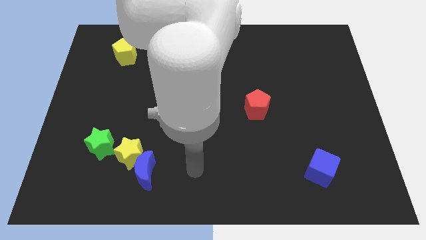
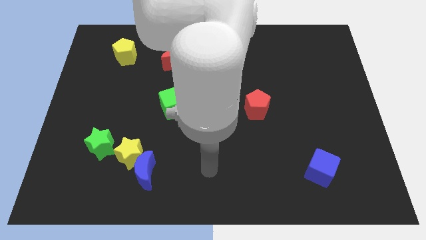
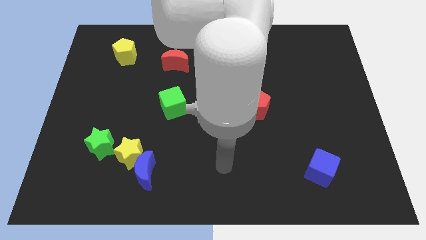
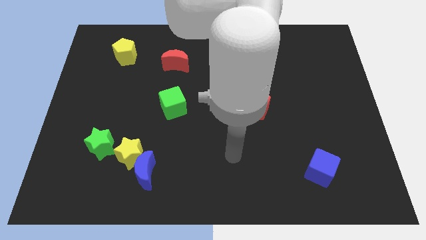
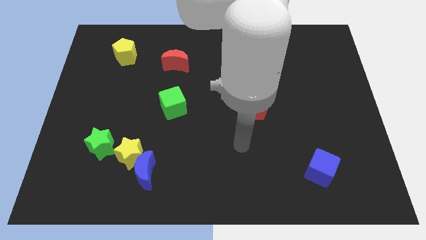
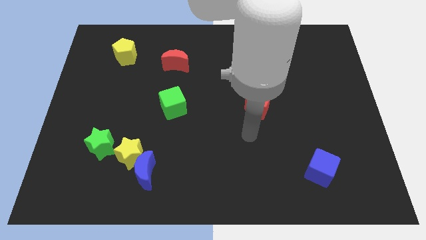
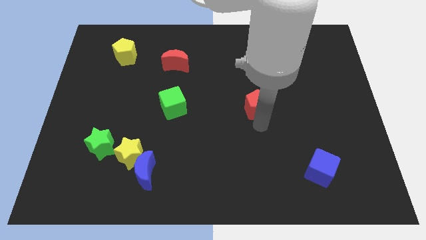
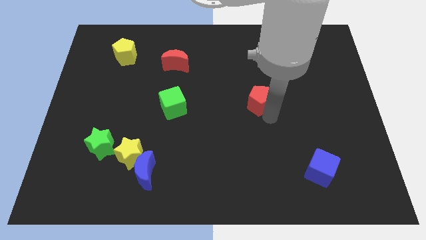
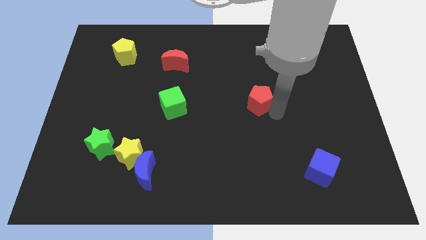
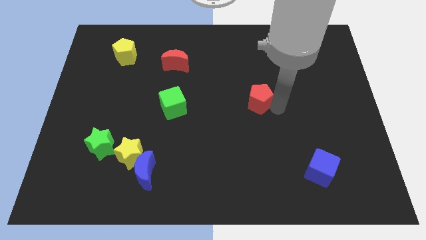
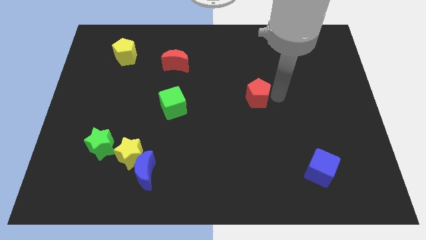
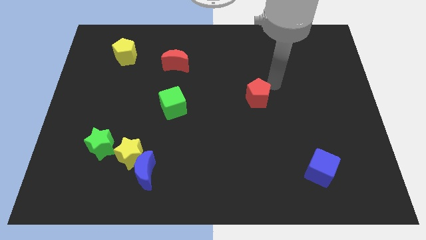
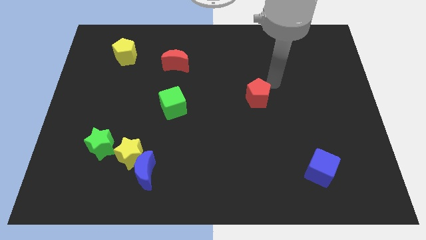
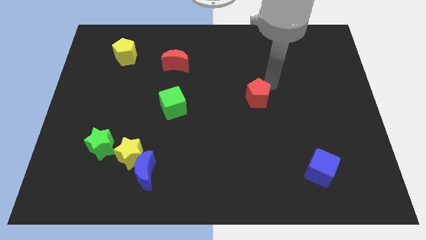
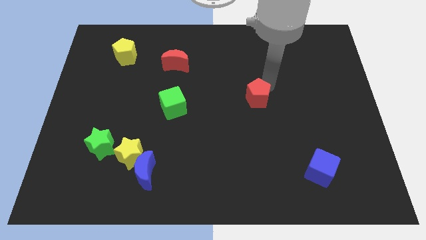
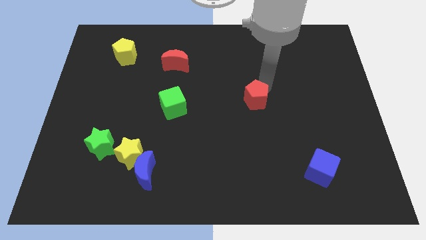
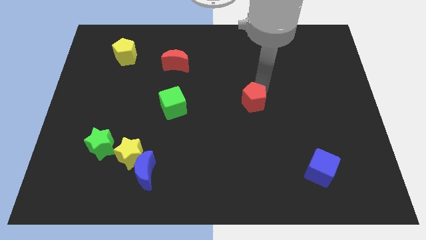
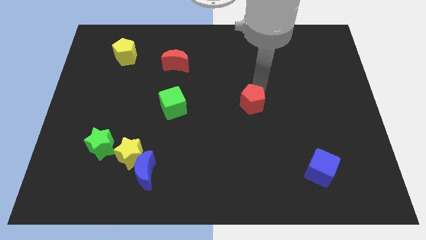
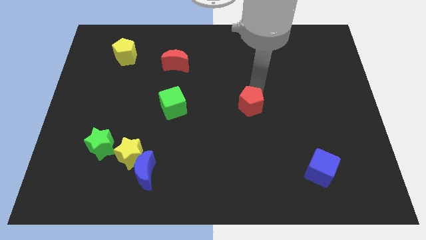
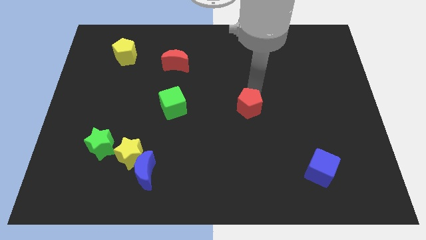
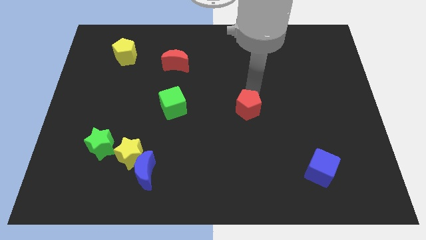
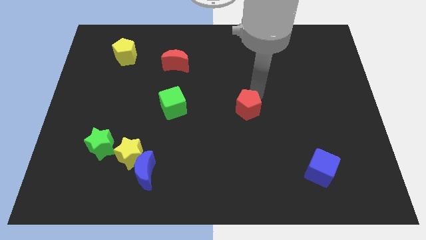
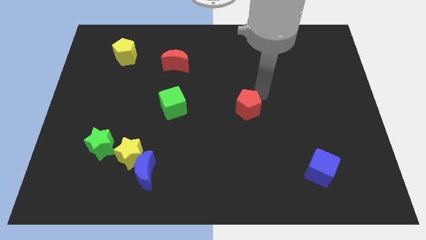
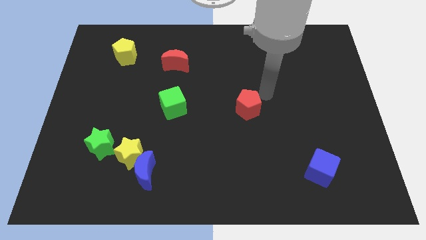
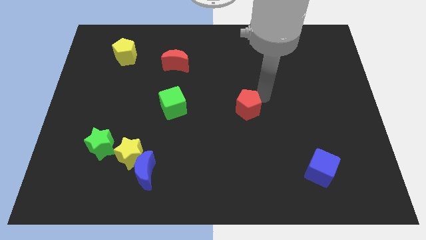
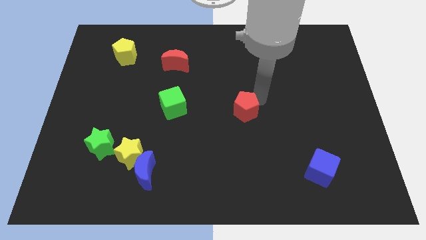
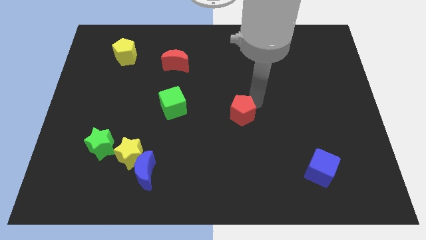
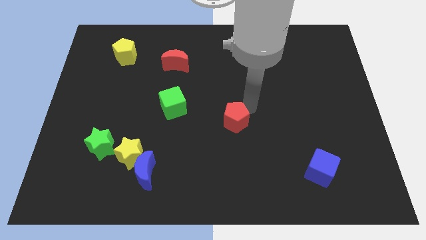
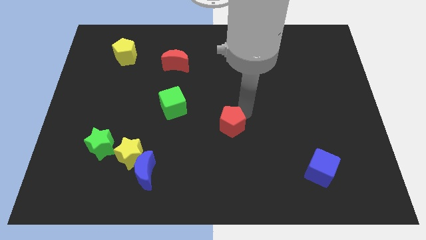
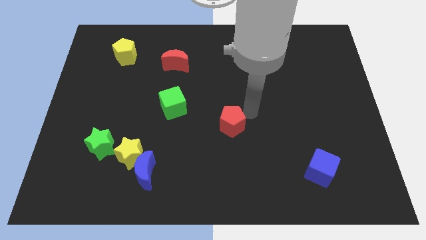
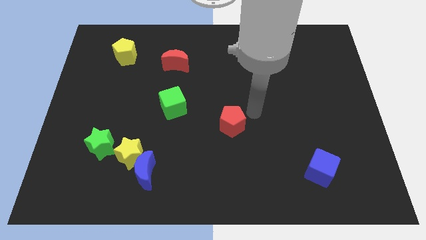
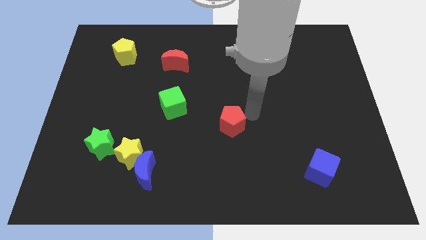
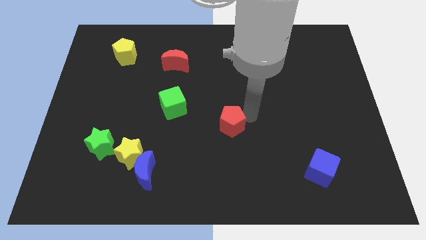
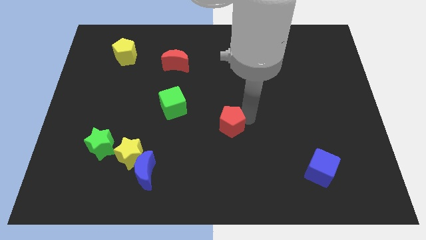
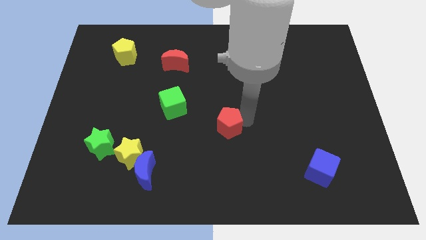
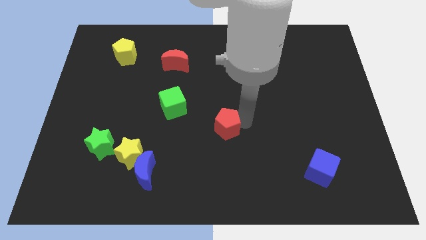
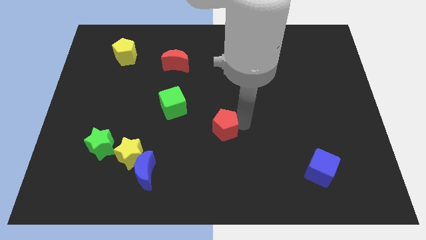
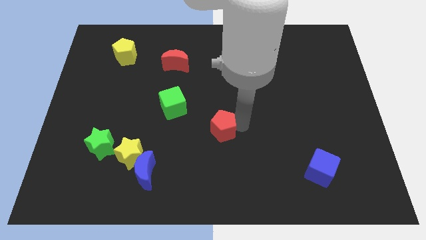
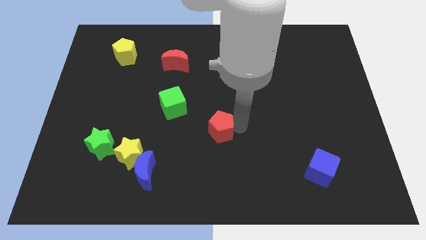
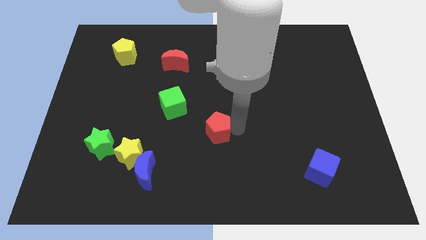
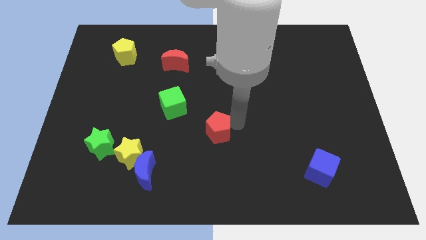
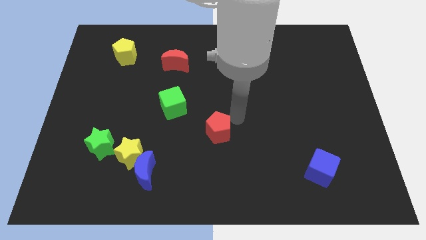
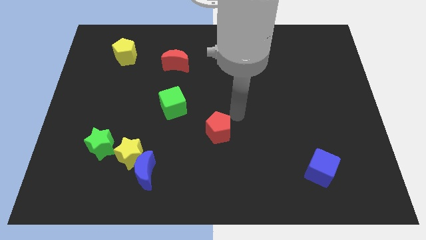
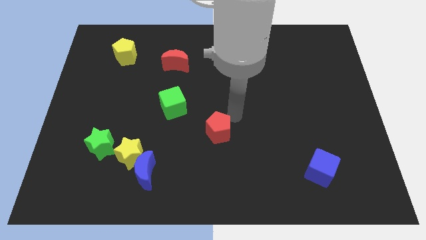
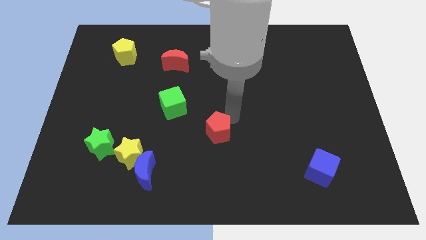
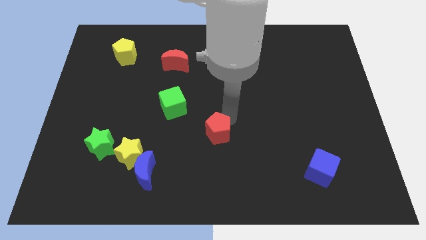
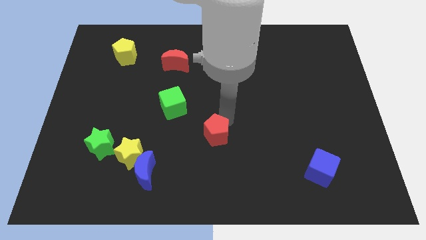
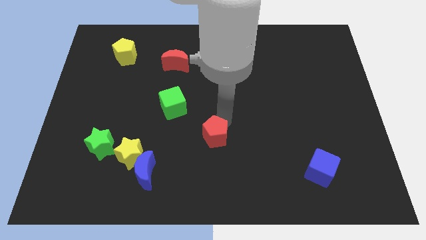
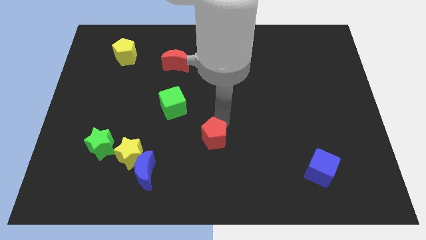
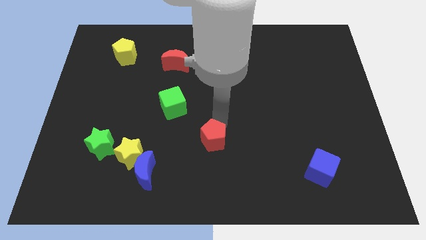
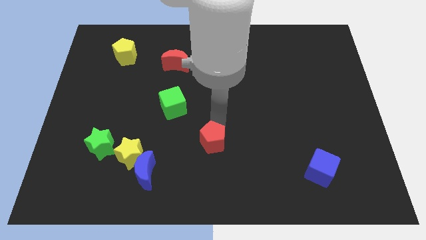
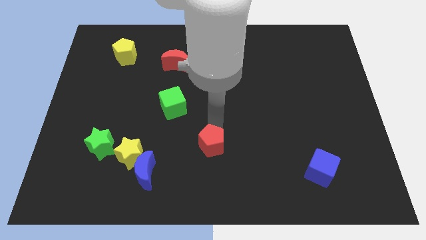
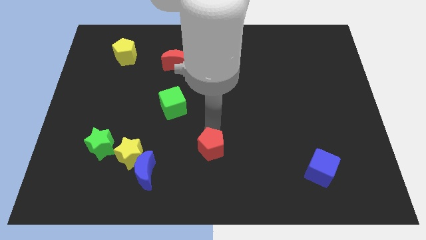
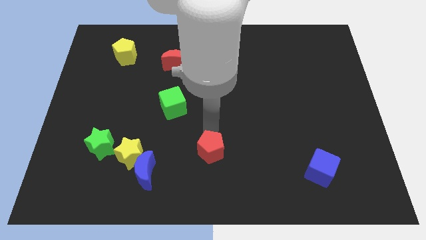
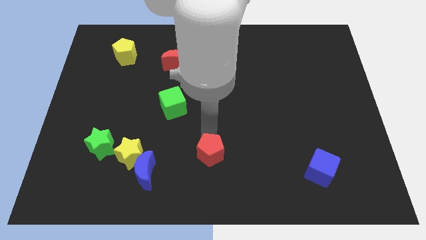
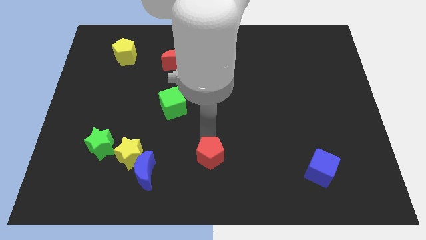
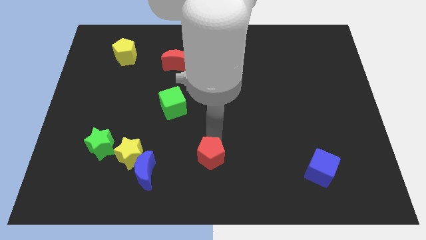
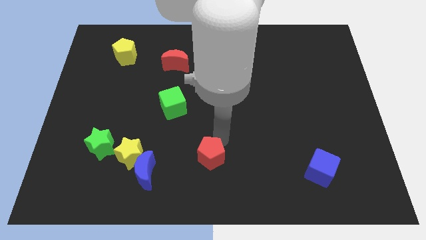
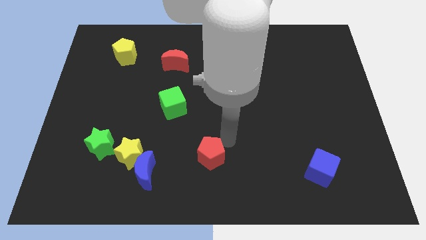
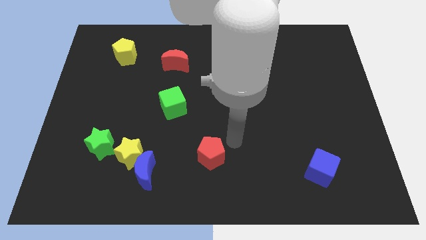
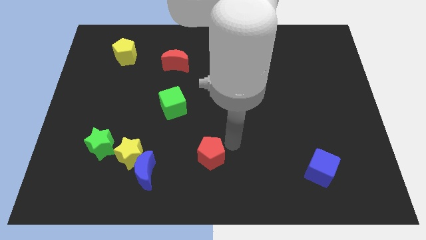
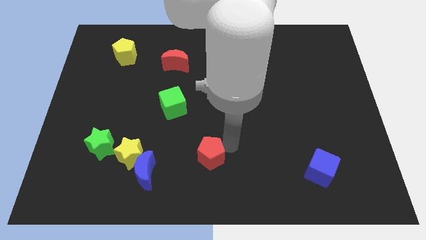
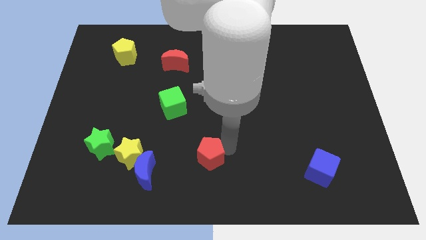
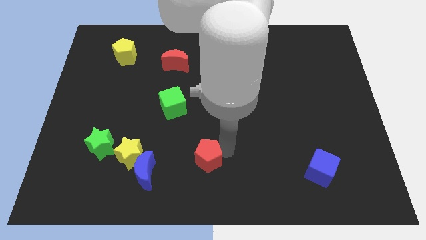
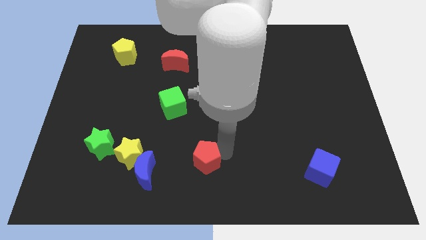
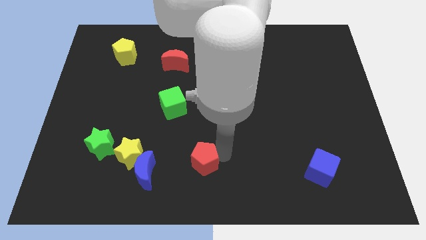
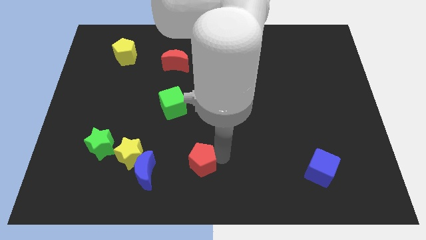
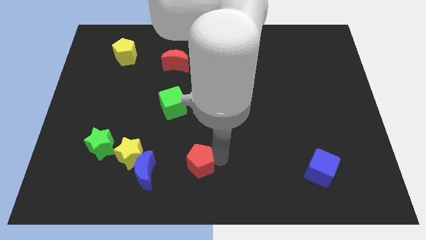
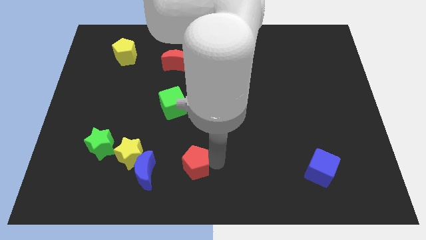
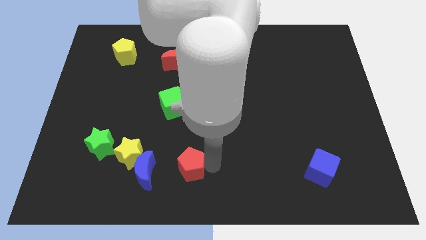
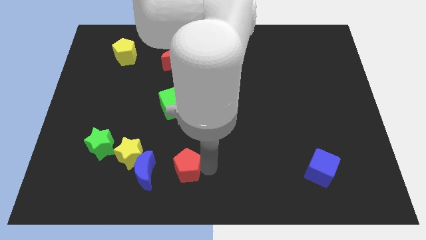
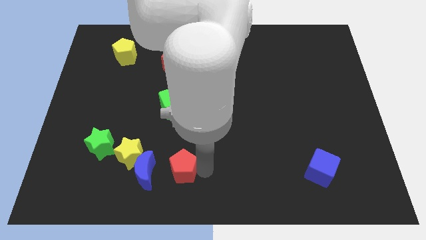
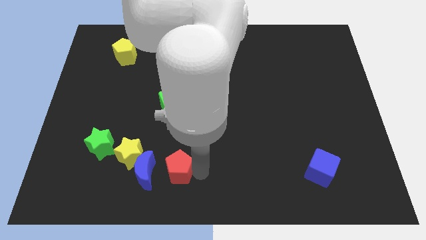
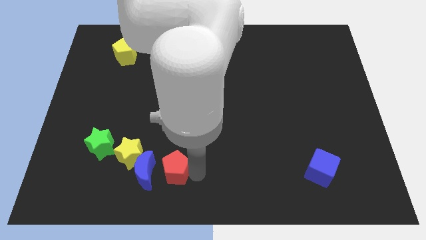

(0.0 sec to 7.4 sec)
move the red pentagon close to the blue moon

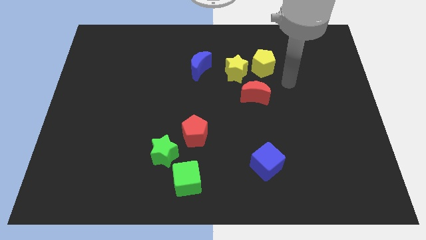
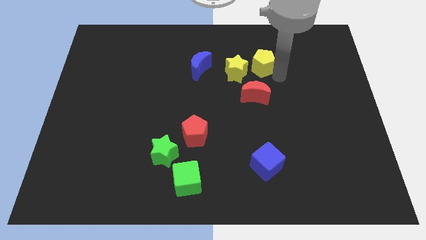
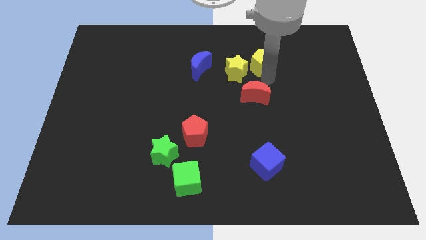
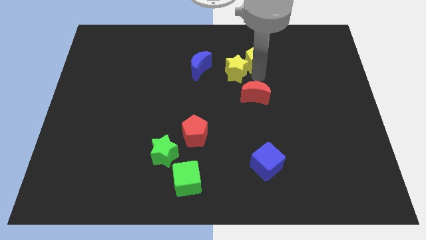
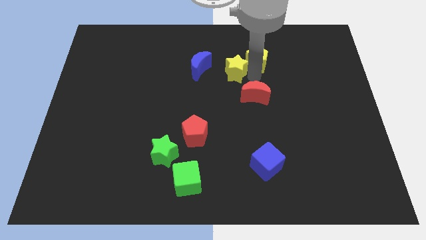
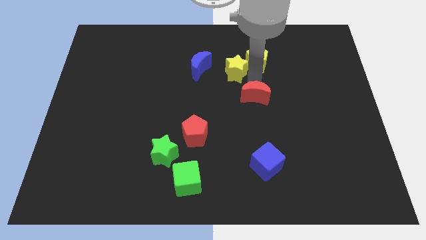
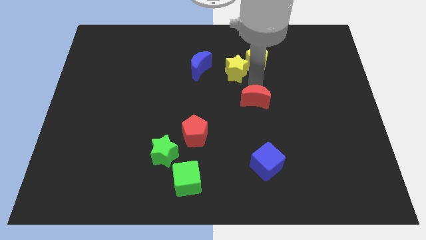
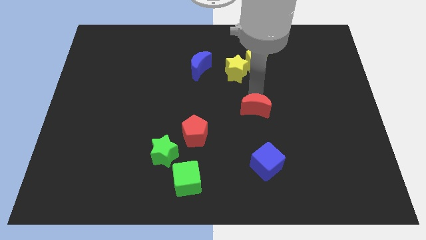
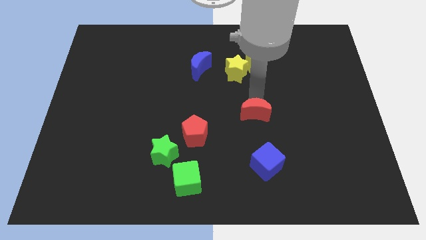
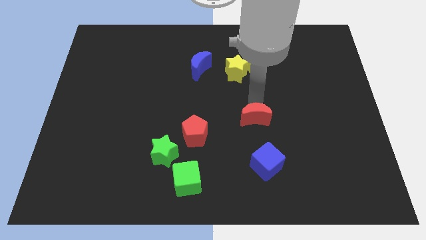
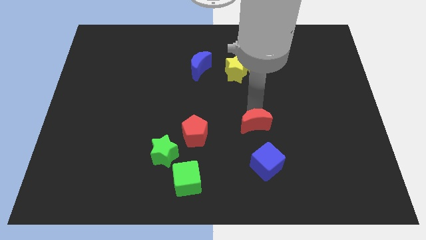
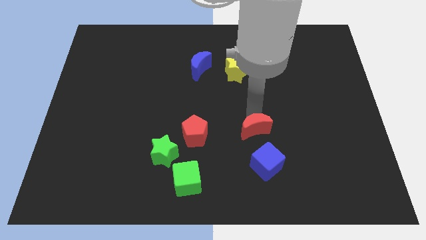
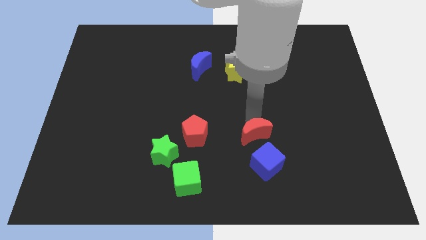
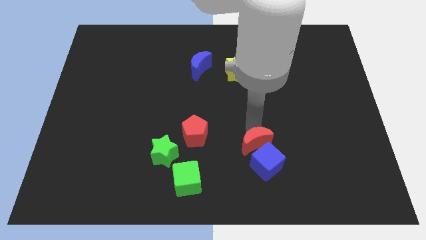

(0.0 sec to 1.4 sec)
put the red moon to the blue cube
